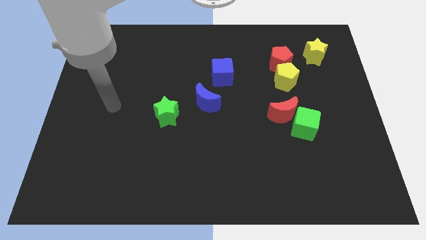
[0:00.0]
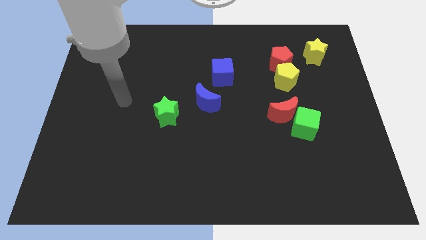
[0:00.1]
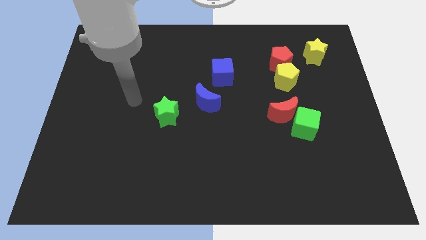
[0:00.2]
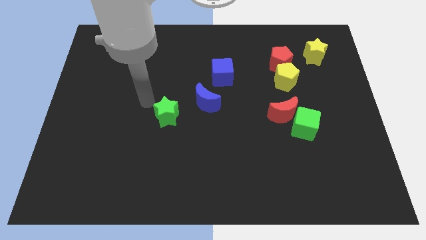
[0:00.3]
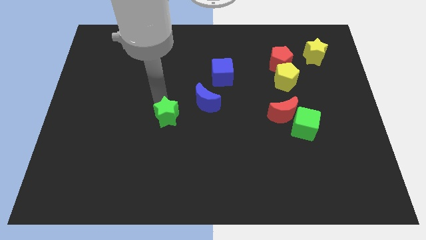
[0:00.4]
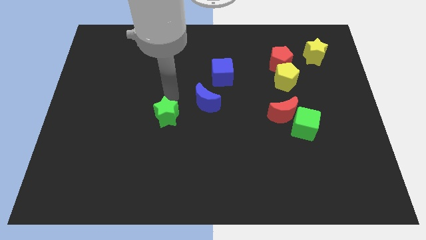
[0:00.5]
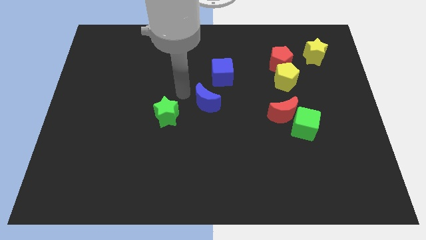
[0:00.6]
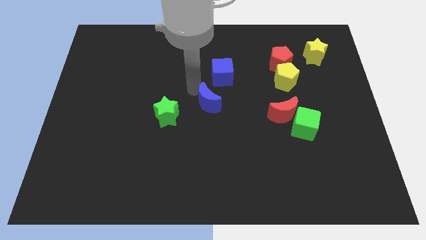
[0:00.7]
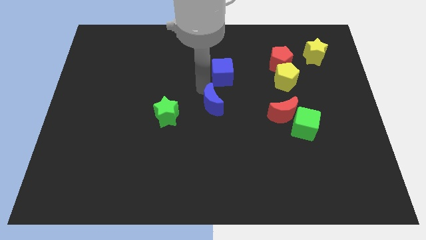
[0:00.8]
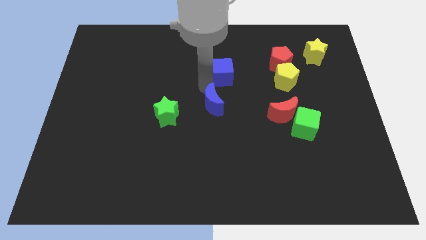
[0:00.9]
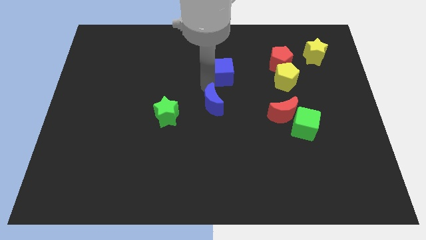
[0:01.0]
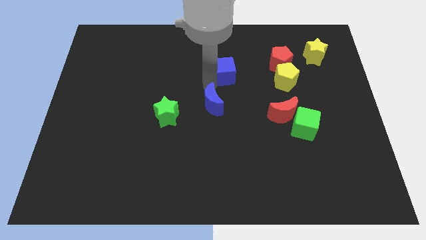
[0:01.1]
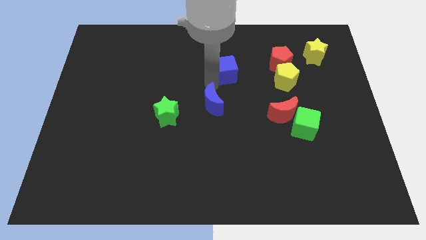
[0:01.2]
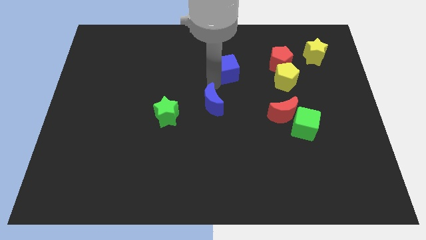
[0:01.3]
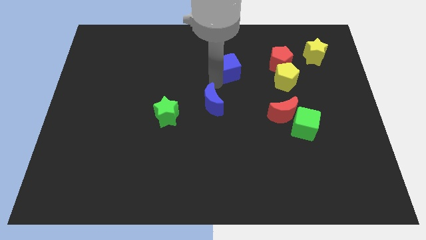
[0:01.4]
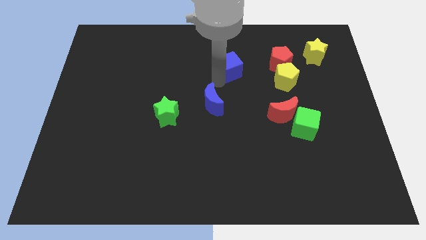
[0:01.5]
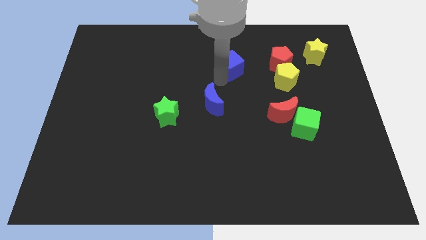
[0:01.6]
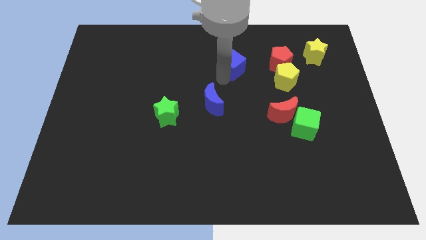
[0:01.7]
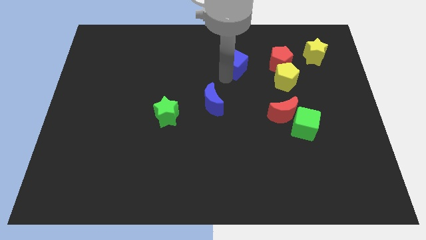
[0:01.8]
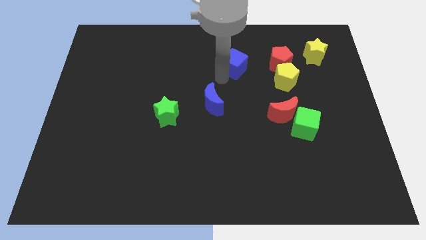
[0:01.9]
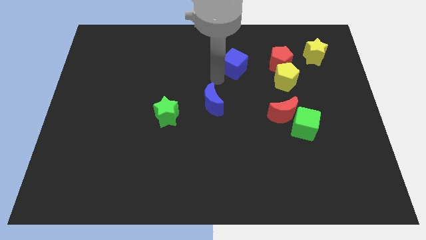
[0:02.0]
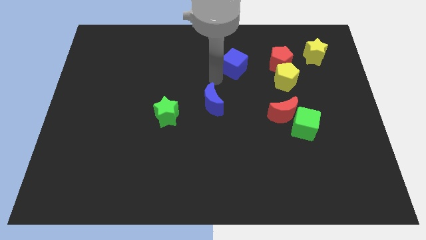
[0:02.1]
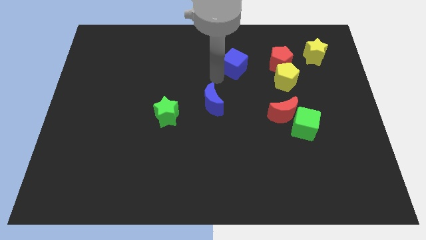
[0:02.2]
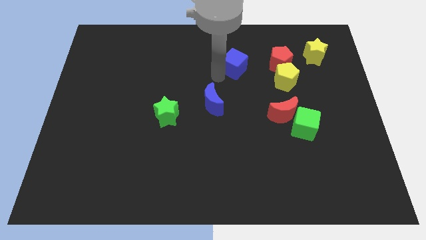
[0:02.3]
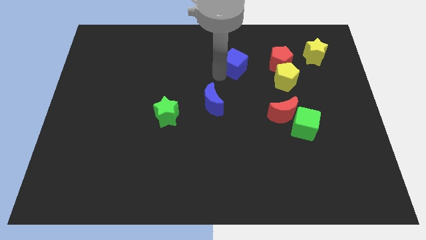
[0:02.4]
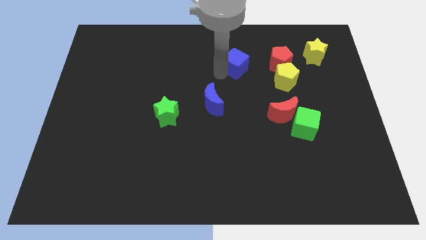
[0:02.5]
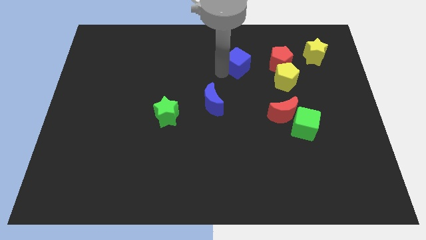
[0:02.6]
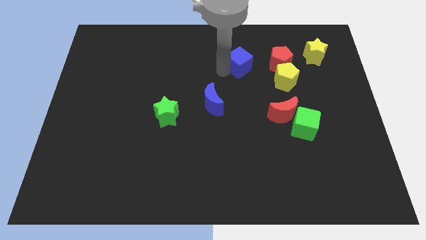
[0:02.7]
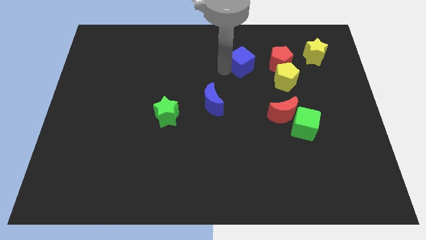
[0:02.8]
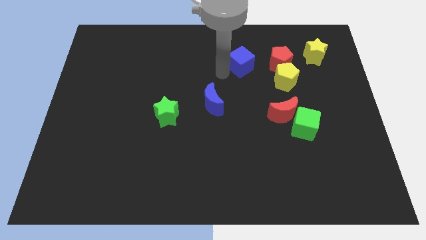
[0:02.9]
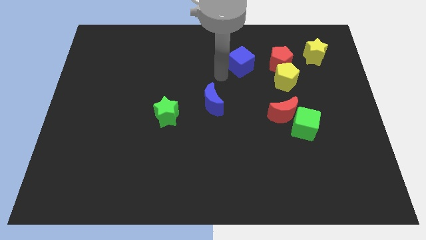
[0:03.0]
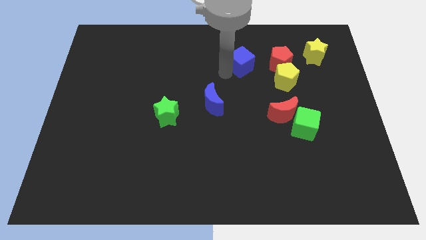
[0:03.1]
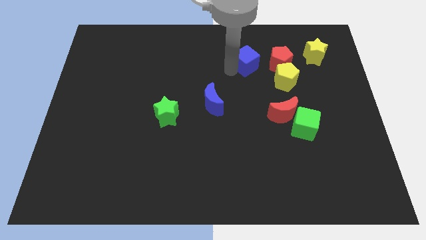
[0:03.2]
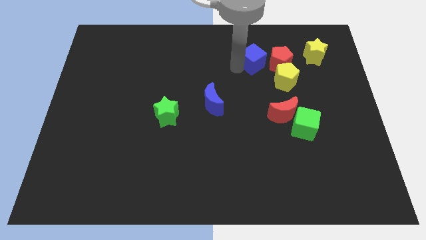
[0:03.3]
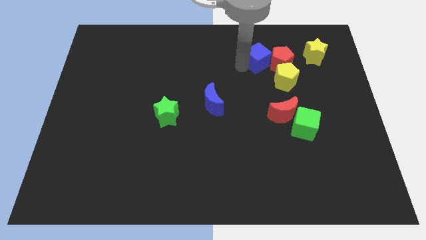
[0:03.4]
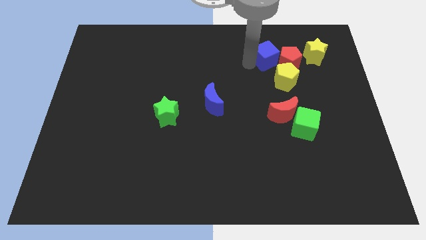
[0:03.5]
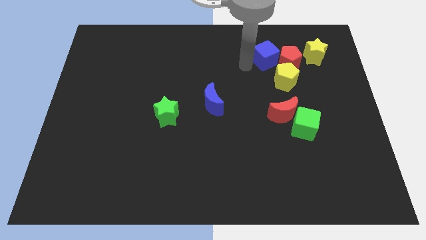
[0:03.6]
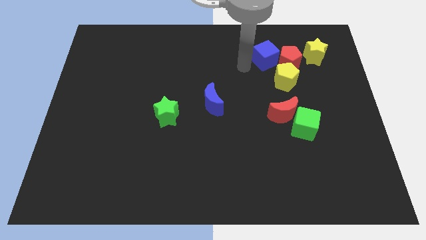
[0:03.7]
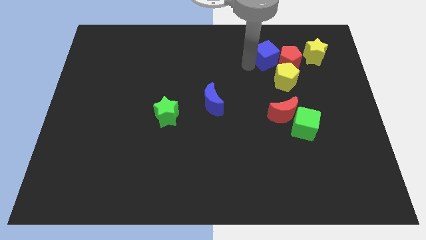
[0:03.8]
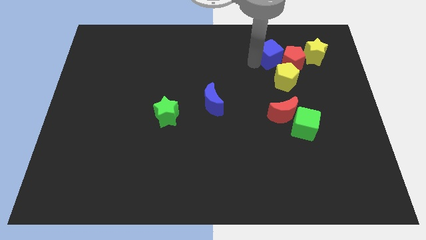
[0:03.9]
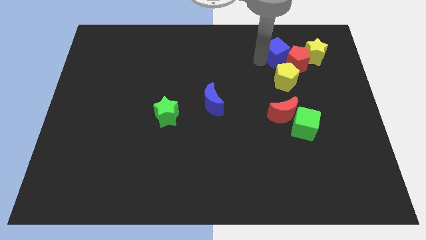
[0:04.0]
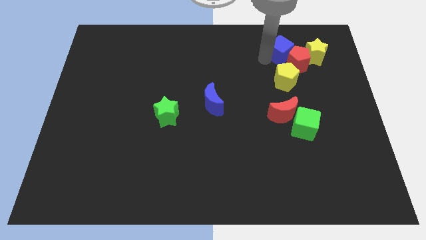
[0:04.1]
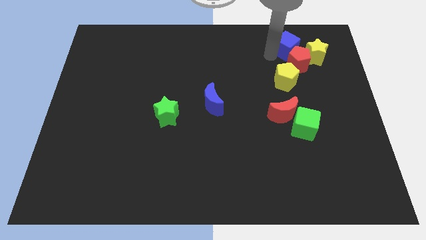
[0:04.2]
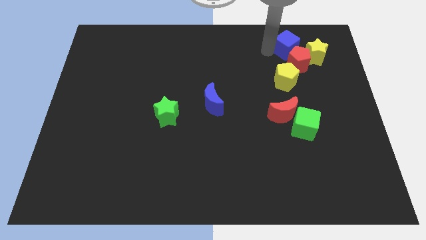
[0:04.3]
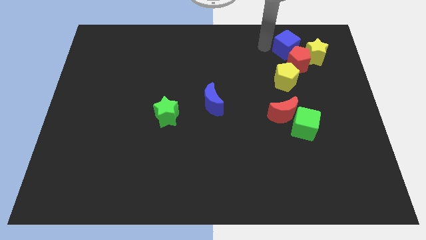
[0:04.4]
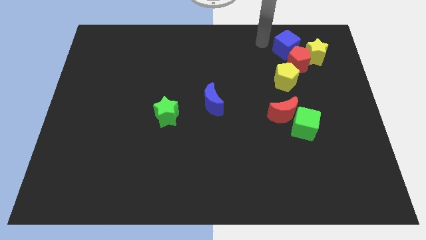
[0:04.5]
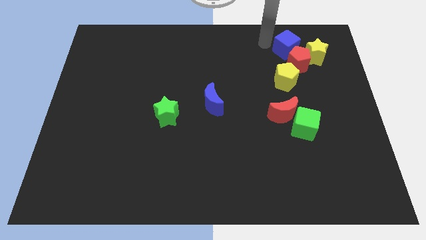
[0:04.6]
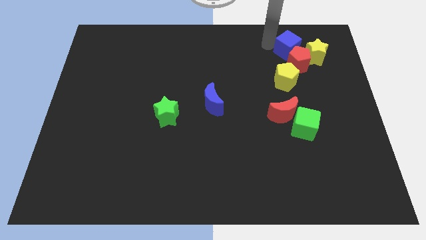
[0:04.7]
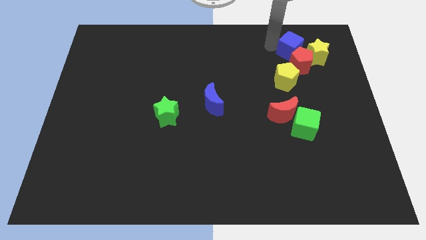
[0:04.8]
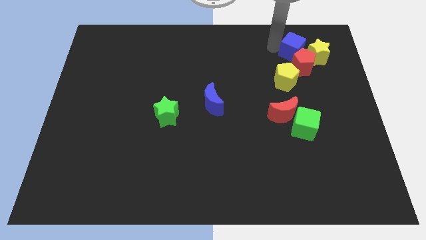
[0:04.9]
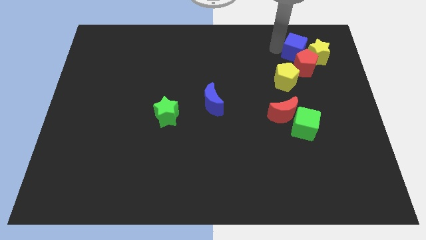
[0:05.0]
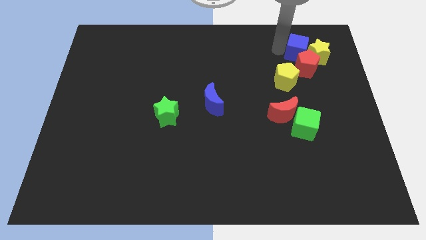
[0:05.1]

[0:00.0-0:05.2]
move the blue cube to the yellow star

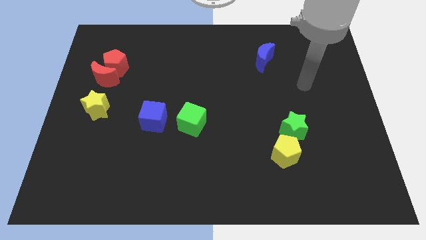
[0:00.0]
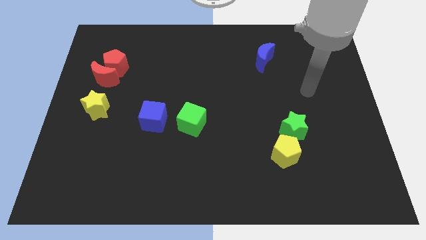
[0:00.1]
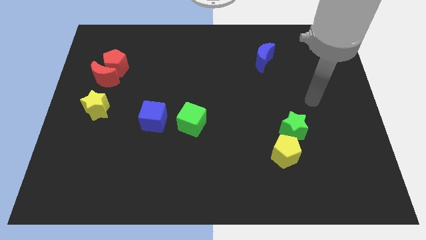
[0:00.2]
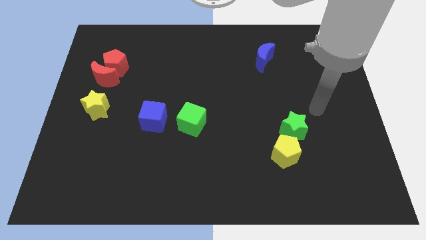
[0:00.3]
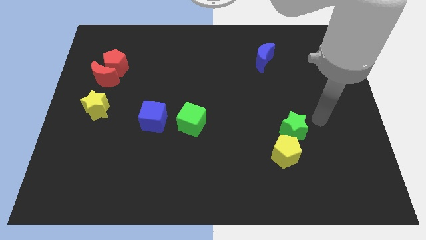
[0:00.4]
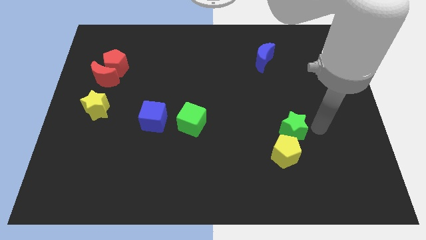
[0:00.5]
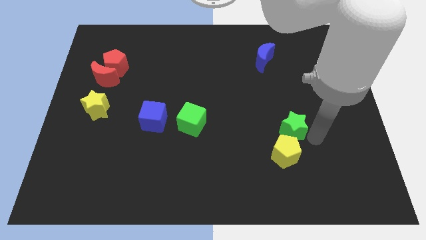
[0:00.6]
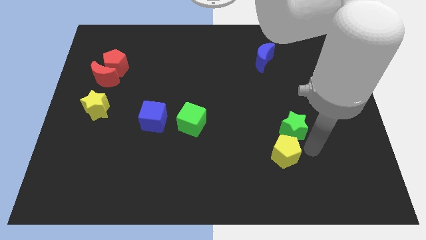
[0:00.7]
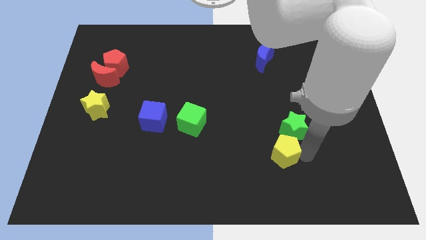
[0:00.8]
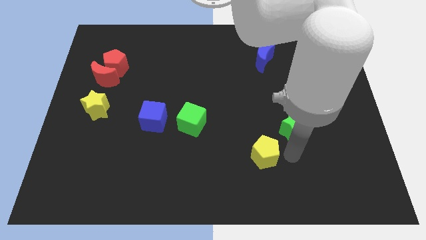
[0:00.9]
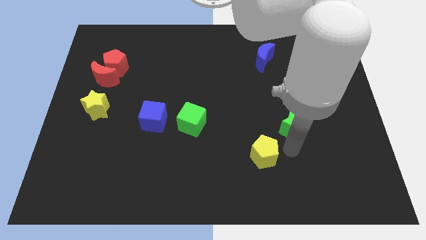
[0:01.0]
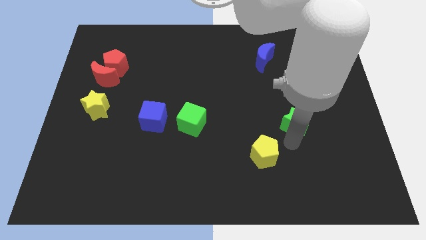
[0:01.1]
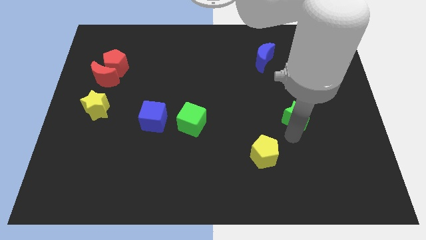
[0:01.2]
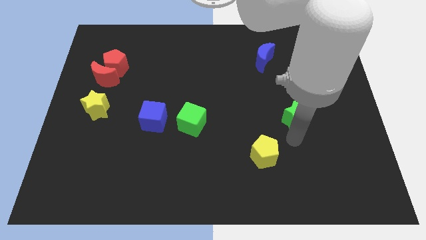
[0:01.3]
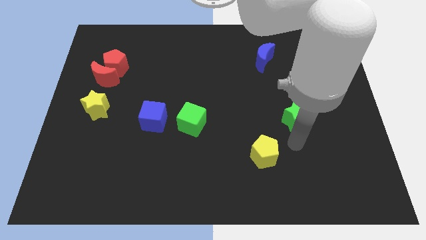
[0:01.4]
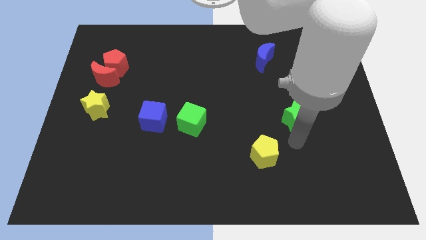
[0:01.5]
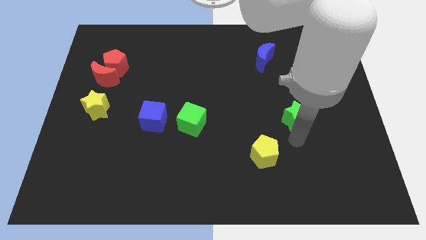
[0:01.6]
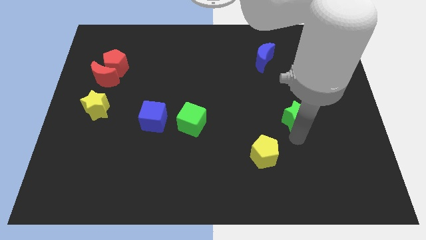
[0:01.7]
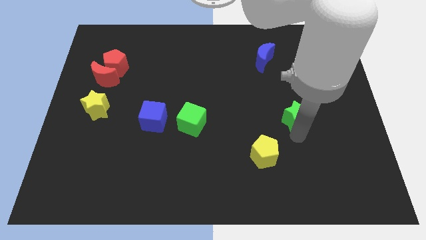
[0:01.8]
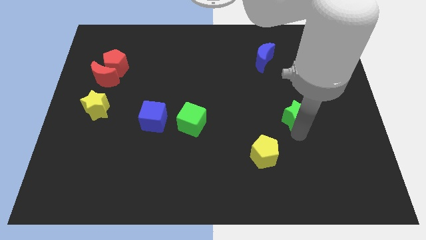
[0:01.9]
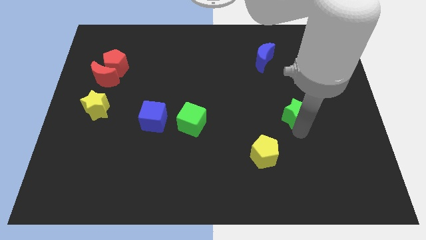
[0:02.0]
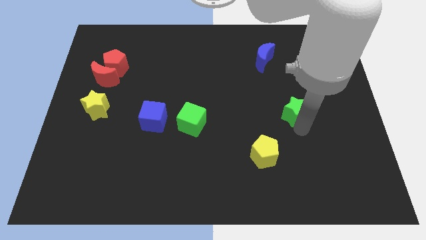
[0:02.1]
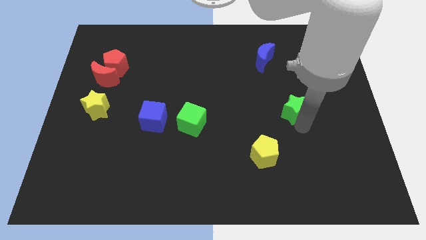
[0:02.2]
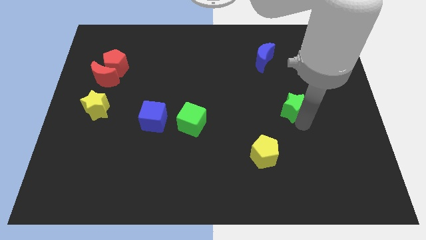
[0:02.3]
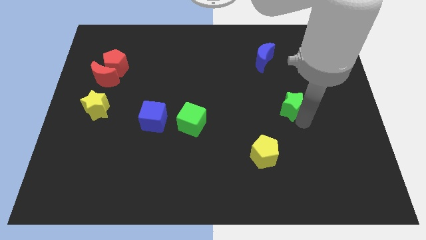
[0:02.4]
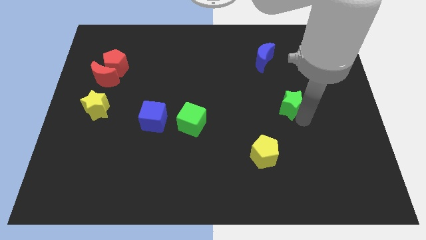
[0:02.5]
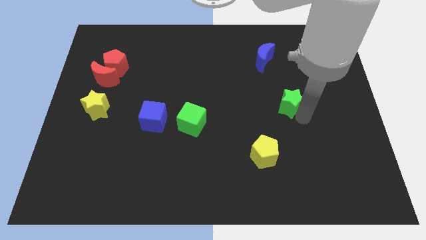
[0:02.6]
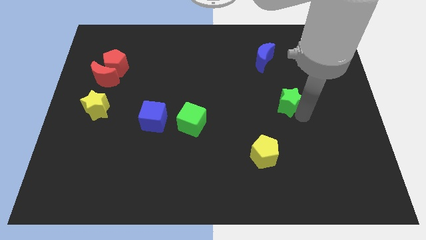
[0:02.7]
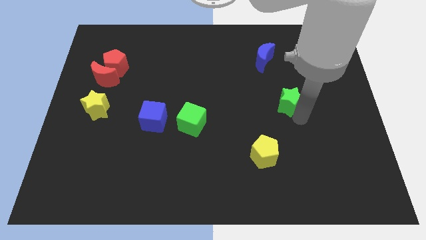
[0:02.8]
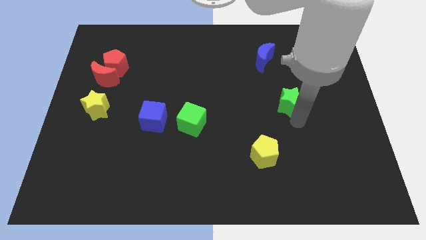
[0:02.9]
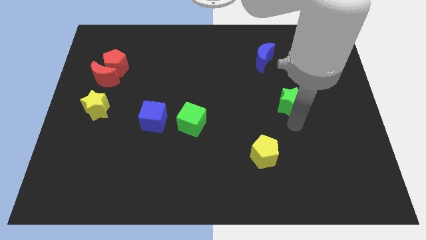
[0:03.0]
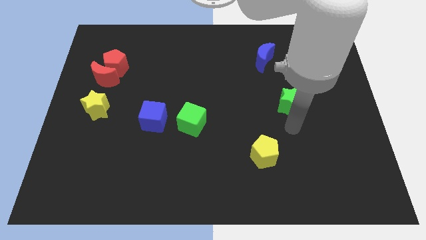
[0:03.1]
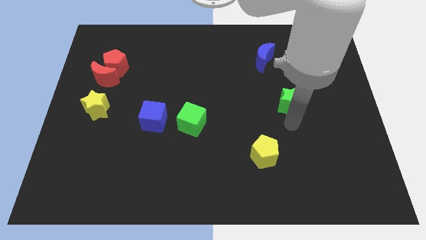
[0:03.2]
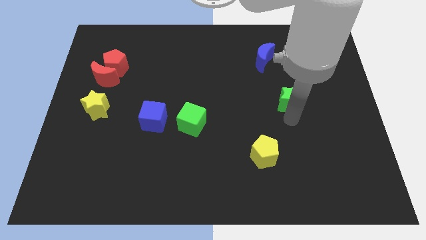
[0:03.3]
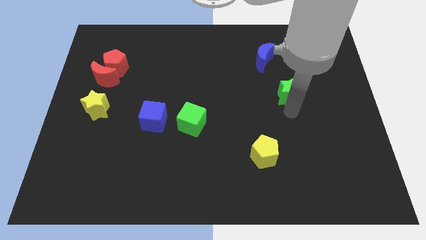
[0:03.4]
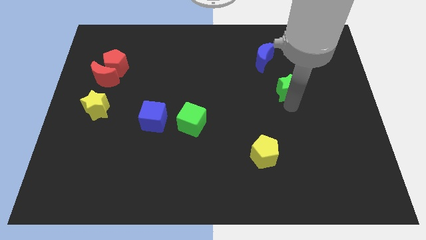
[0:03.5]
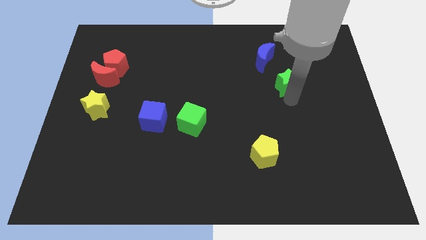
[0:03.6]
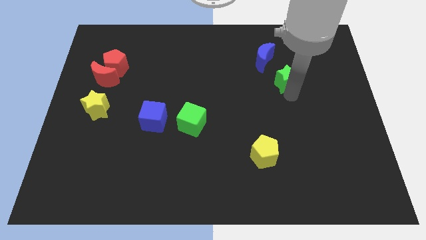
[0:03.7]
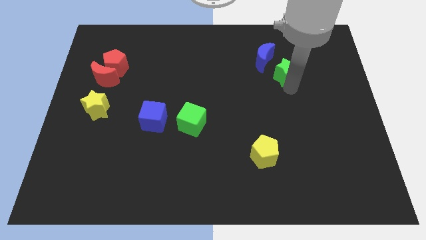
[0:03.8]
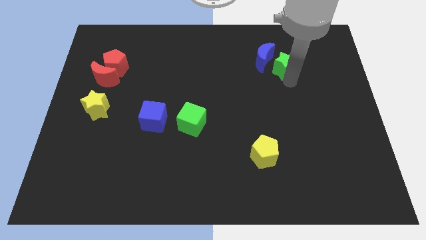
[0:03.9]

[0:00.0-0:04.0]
slide the green star next to the blue moon
